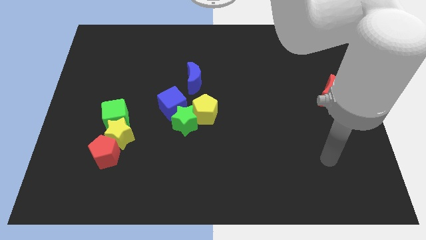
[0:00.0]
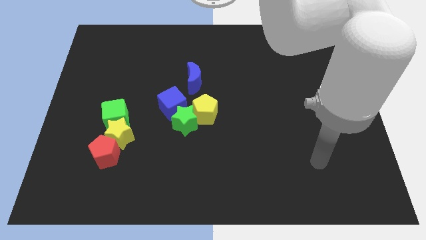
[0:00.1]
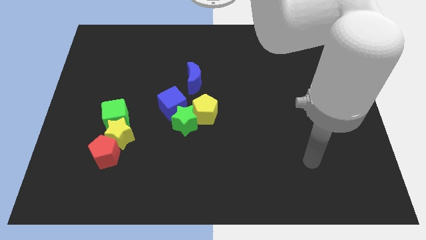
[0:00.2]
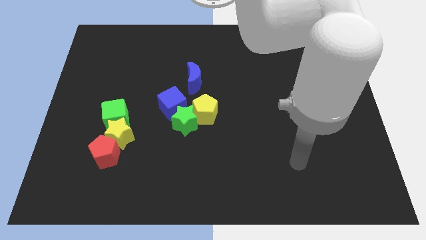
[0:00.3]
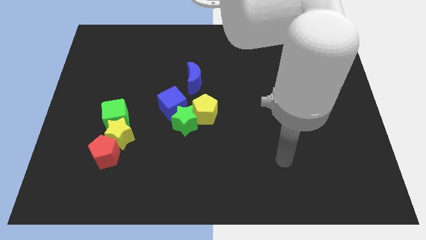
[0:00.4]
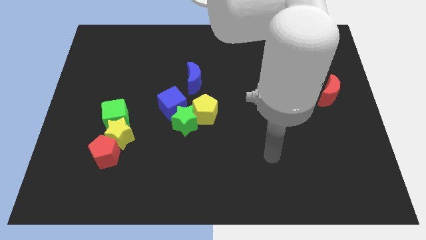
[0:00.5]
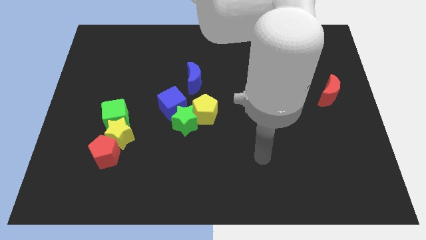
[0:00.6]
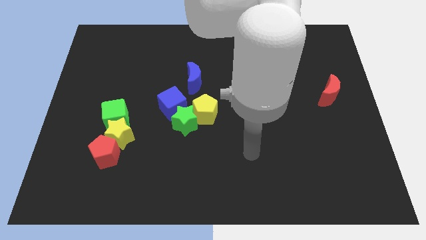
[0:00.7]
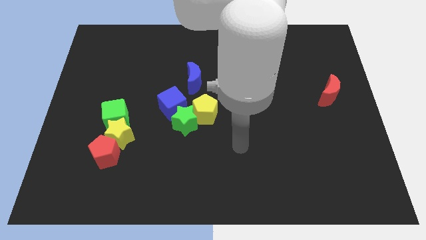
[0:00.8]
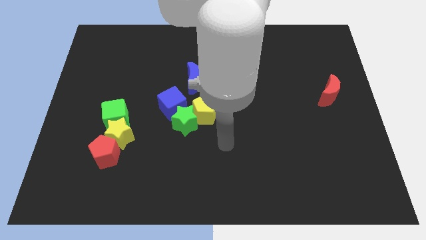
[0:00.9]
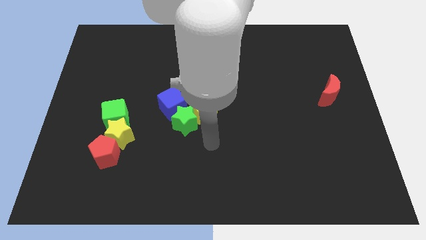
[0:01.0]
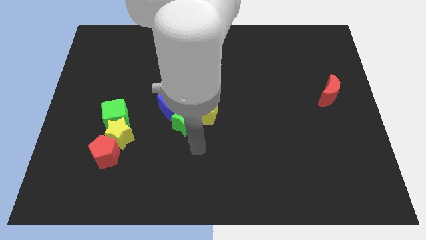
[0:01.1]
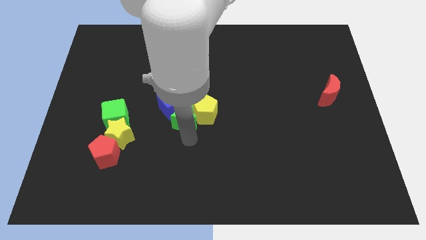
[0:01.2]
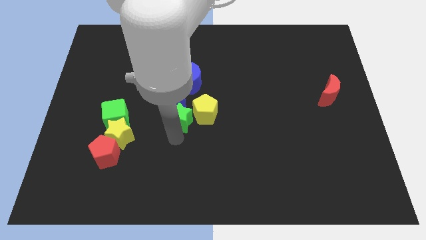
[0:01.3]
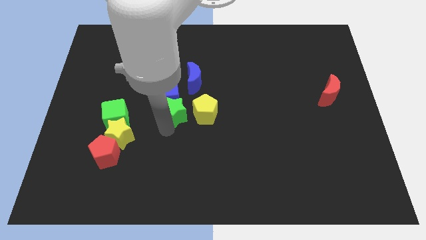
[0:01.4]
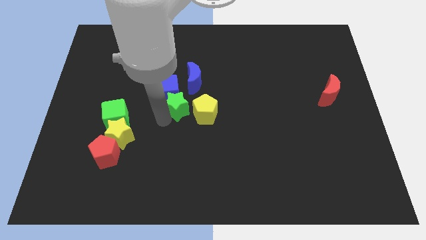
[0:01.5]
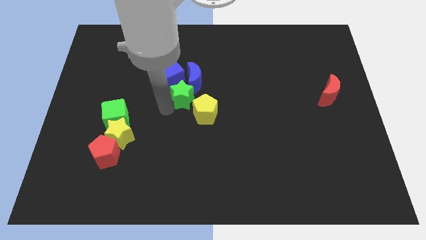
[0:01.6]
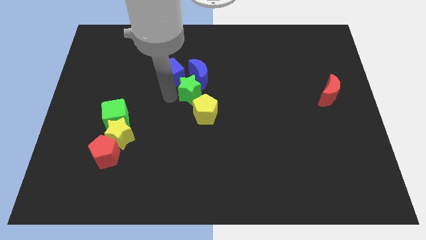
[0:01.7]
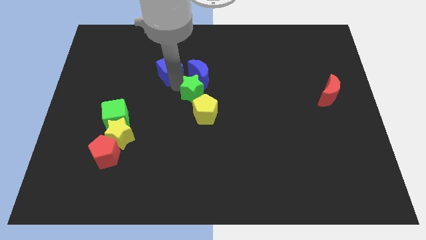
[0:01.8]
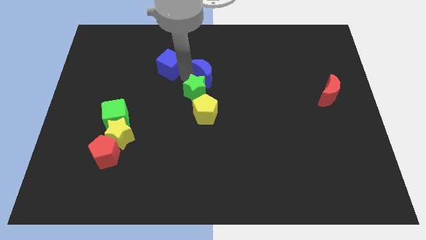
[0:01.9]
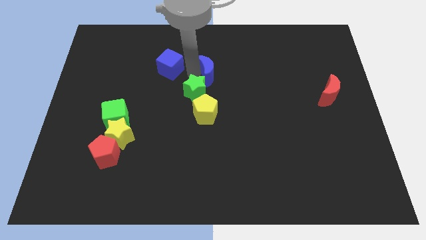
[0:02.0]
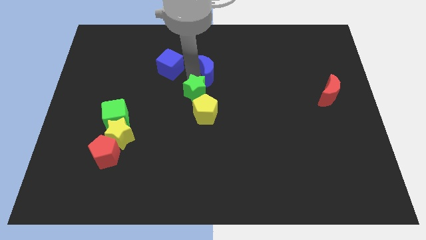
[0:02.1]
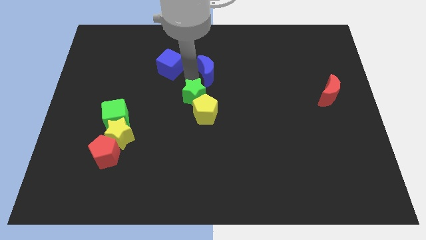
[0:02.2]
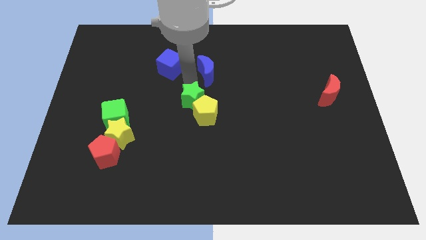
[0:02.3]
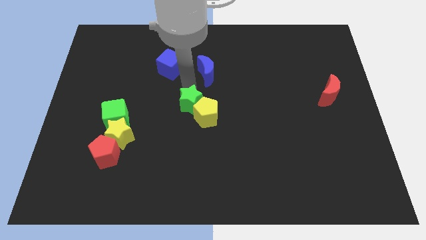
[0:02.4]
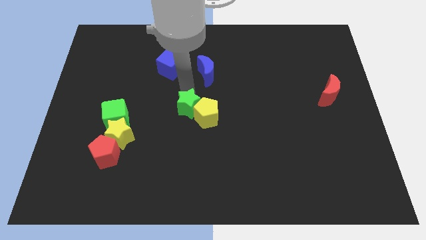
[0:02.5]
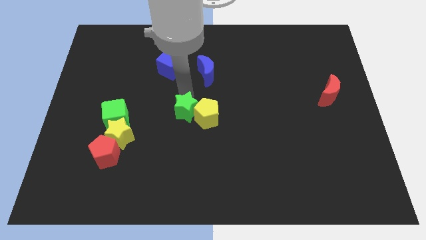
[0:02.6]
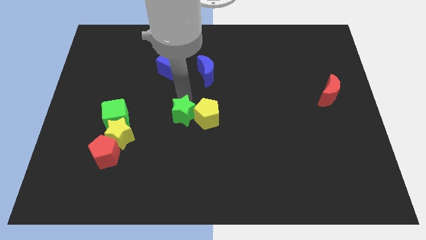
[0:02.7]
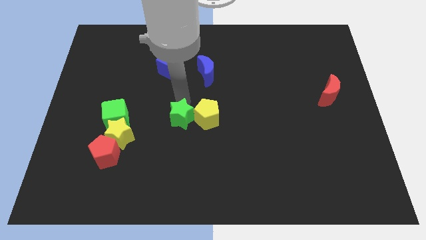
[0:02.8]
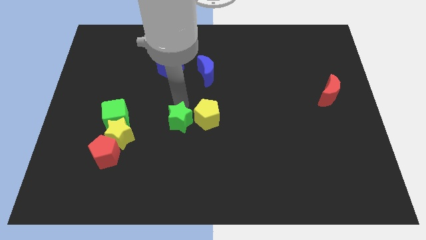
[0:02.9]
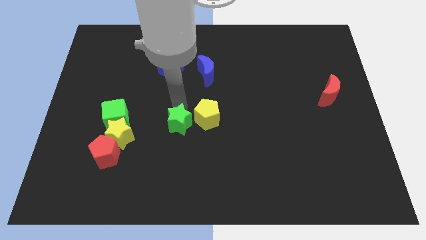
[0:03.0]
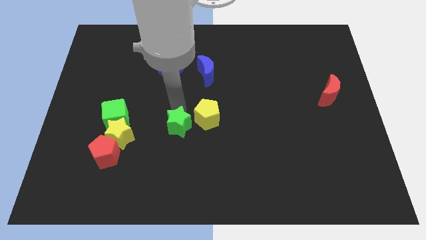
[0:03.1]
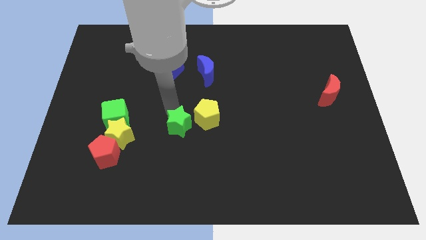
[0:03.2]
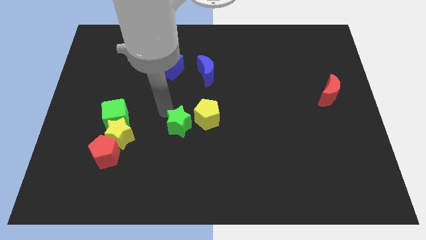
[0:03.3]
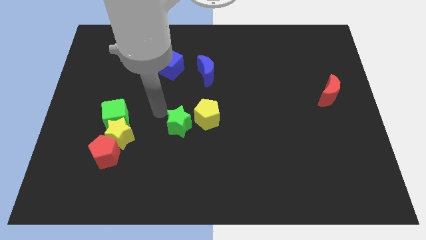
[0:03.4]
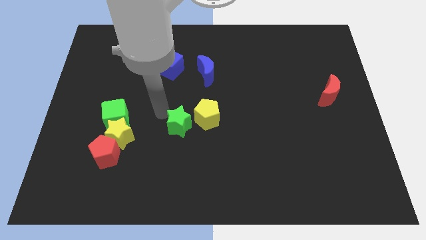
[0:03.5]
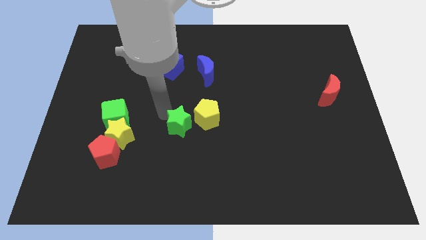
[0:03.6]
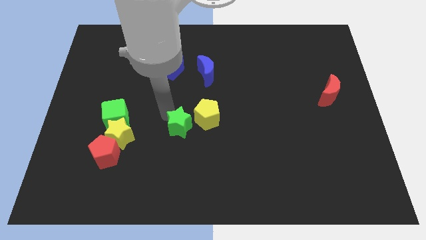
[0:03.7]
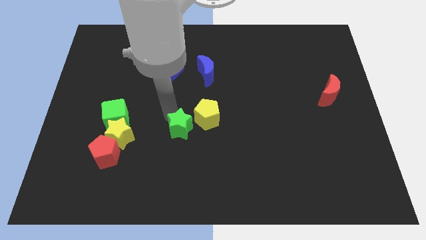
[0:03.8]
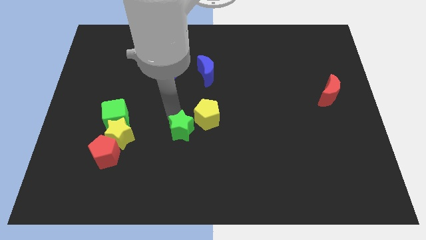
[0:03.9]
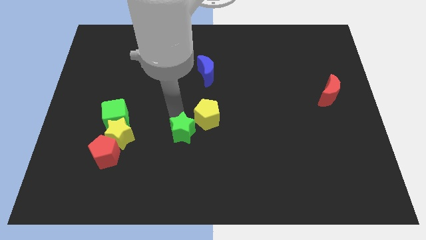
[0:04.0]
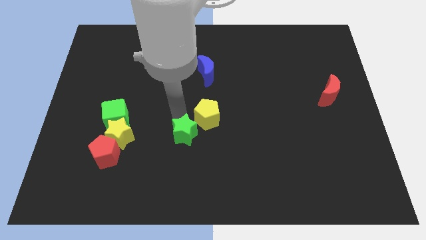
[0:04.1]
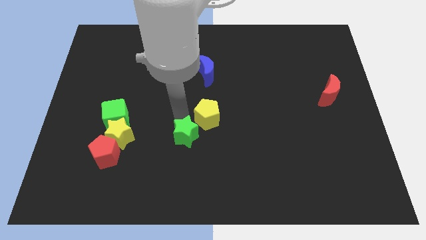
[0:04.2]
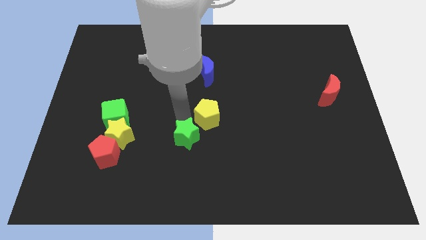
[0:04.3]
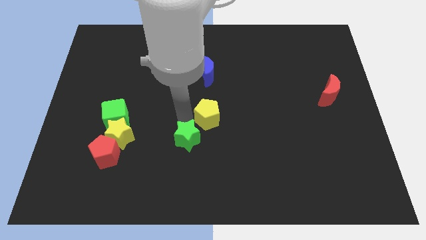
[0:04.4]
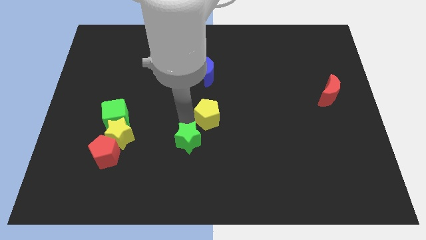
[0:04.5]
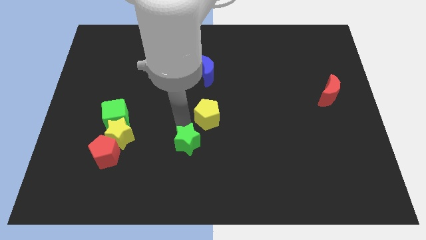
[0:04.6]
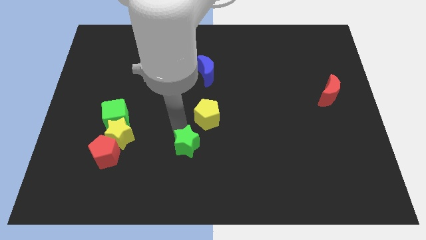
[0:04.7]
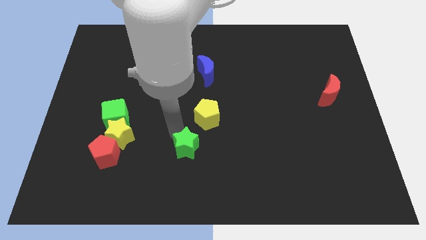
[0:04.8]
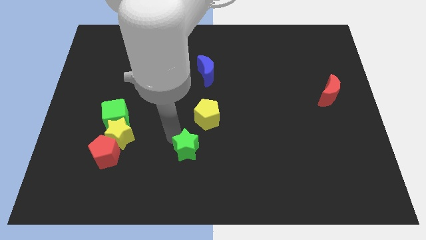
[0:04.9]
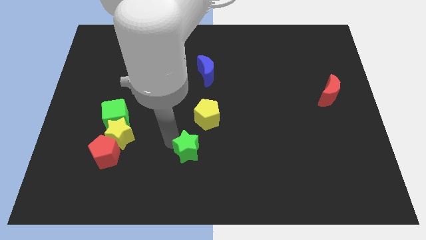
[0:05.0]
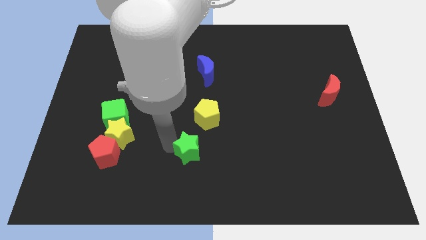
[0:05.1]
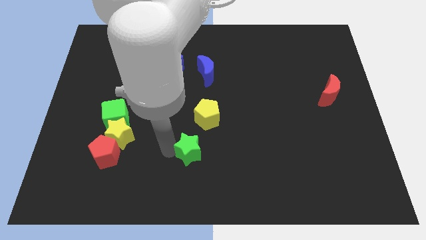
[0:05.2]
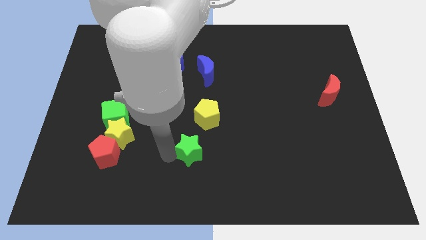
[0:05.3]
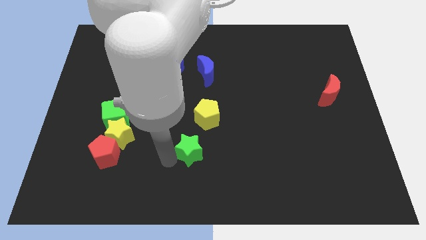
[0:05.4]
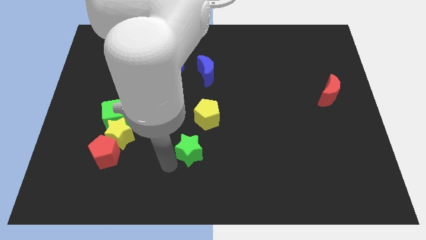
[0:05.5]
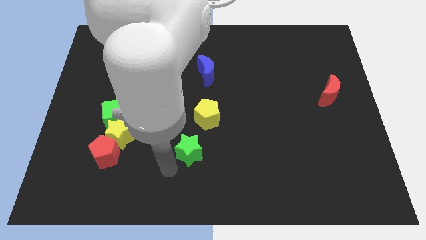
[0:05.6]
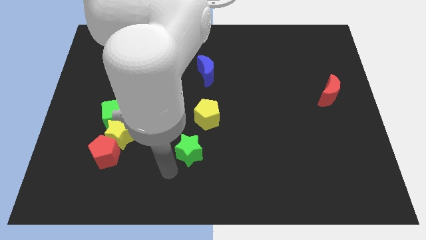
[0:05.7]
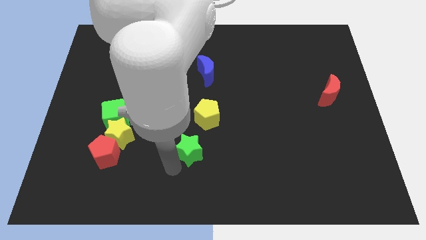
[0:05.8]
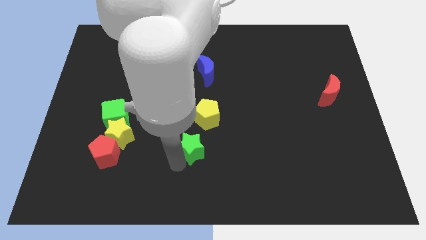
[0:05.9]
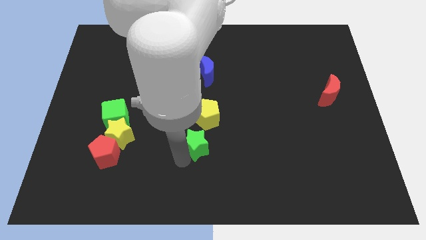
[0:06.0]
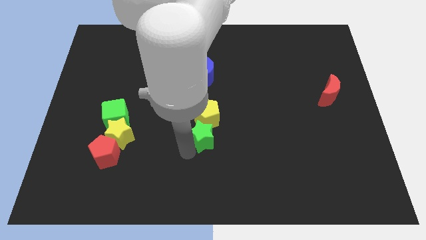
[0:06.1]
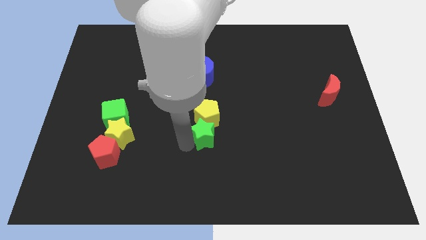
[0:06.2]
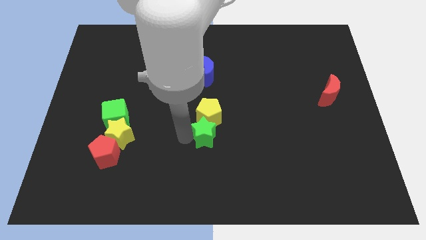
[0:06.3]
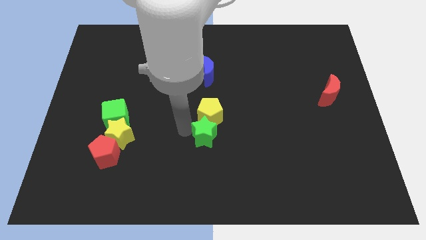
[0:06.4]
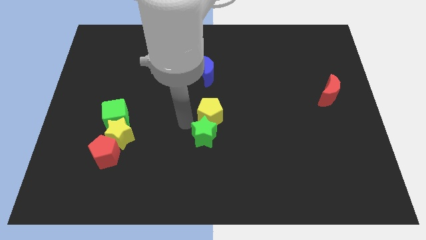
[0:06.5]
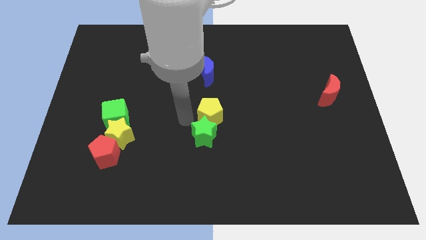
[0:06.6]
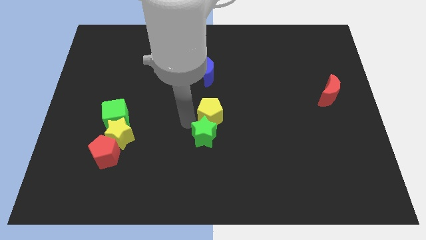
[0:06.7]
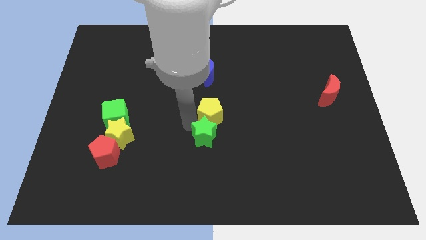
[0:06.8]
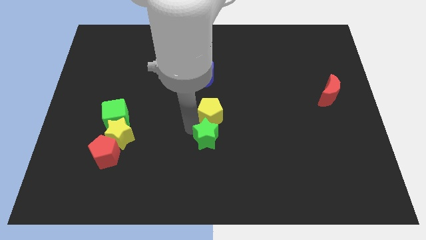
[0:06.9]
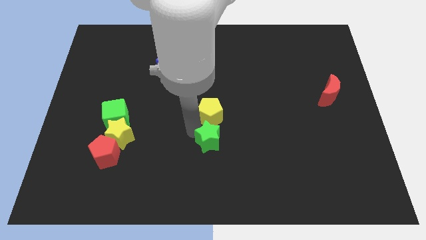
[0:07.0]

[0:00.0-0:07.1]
slide the green star down and to the right slightly

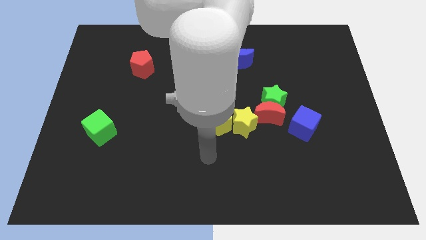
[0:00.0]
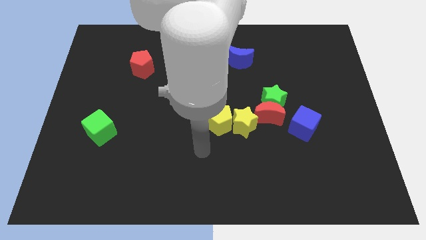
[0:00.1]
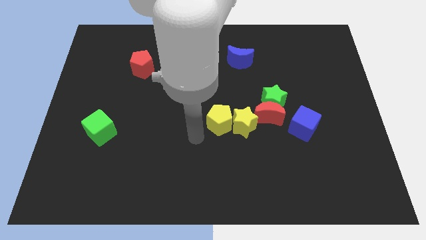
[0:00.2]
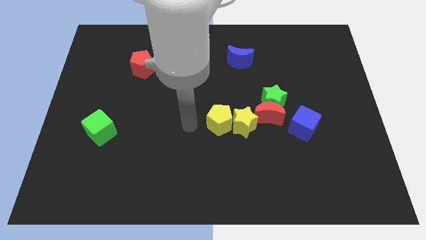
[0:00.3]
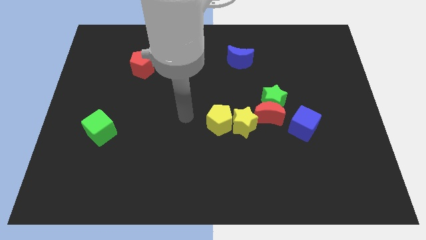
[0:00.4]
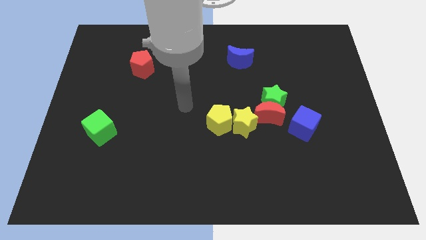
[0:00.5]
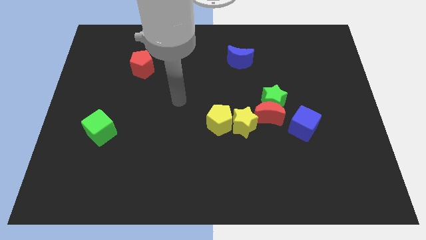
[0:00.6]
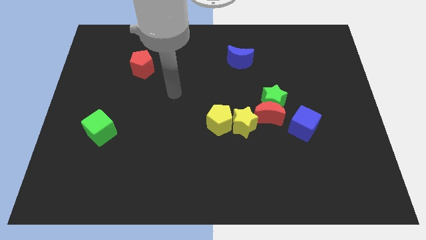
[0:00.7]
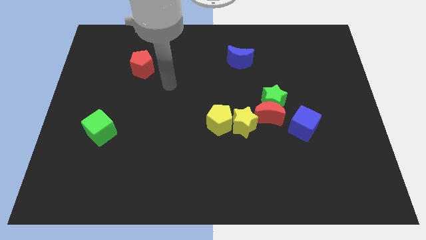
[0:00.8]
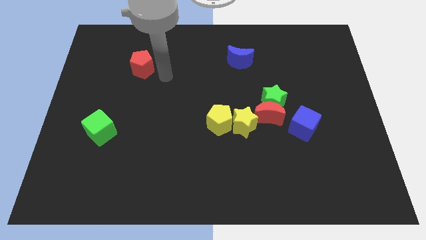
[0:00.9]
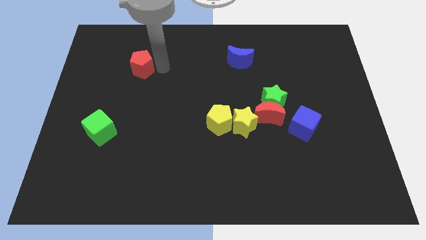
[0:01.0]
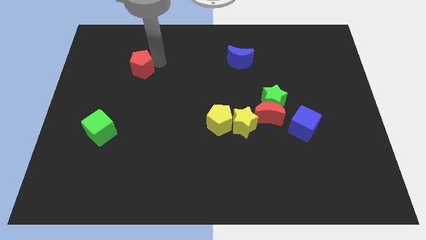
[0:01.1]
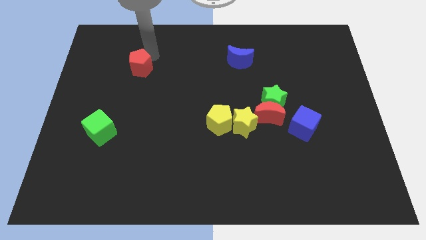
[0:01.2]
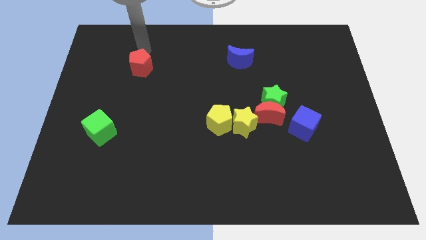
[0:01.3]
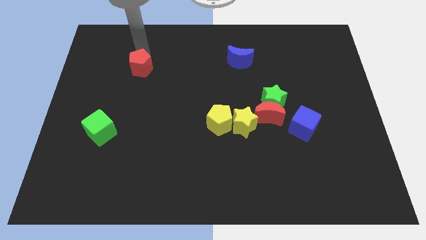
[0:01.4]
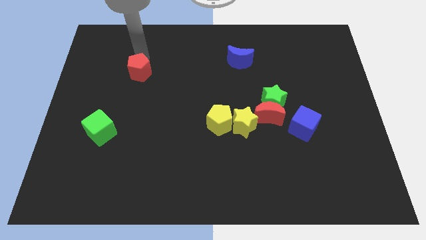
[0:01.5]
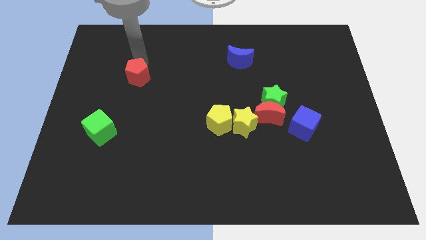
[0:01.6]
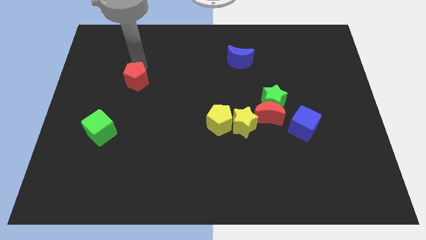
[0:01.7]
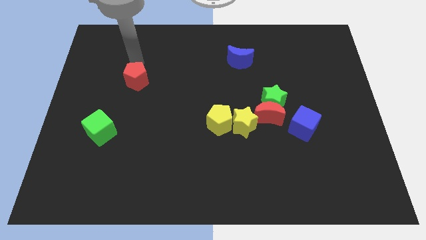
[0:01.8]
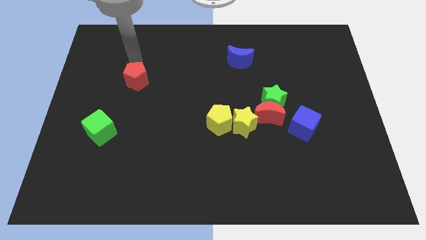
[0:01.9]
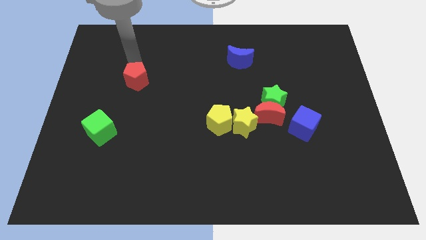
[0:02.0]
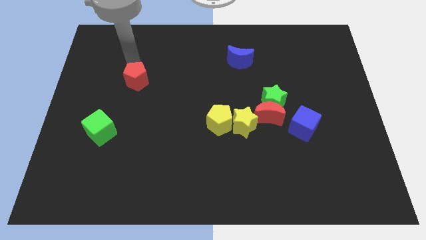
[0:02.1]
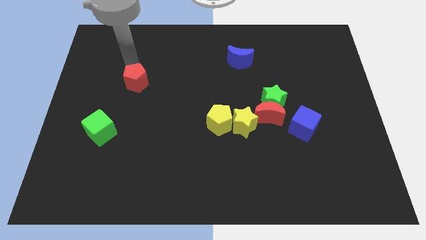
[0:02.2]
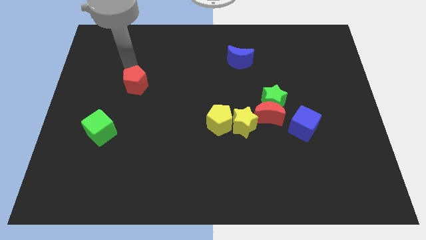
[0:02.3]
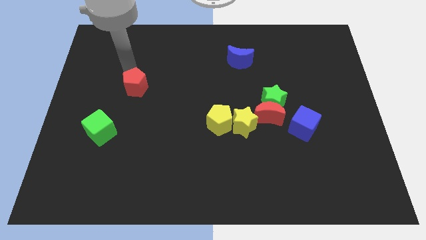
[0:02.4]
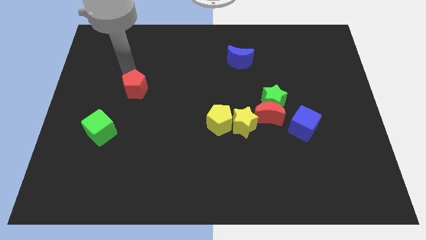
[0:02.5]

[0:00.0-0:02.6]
slightly push the red pentagon down
